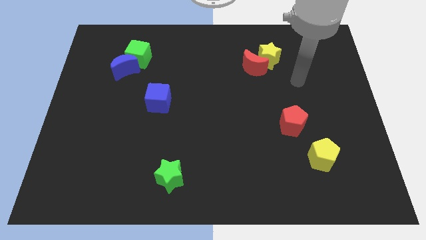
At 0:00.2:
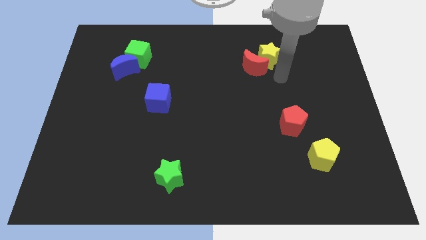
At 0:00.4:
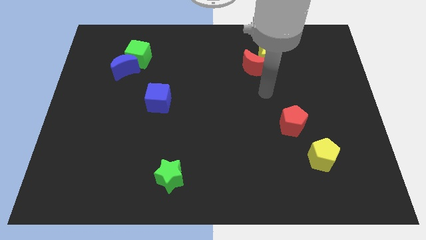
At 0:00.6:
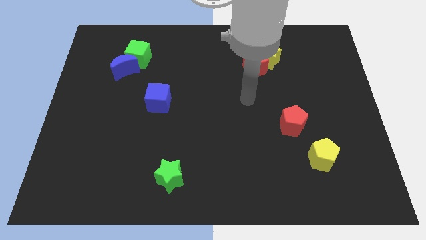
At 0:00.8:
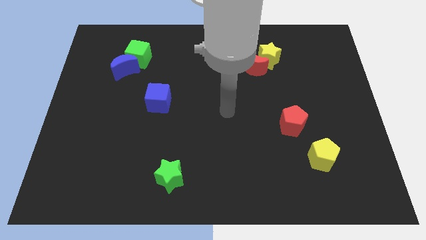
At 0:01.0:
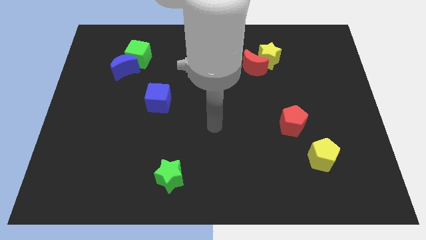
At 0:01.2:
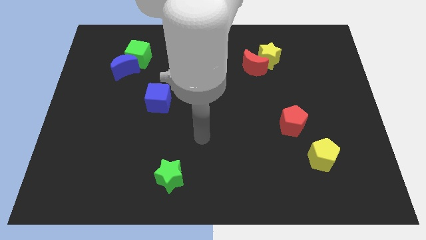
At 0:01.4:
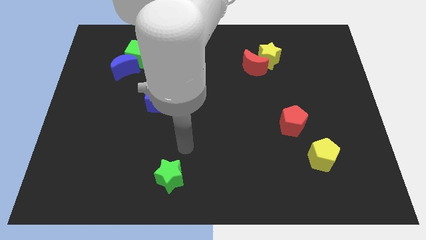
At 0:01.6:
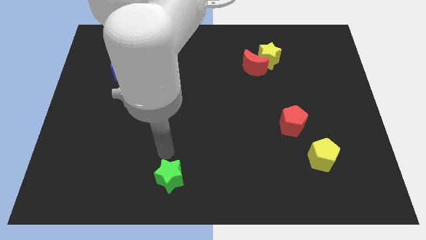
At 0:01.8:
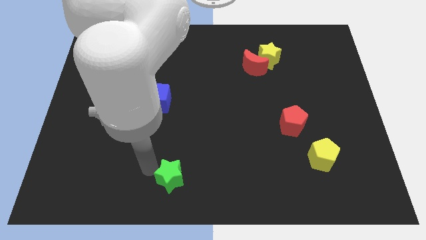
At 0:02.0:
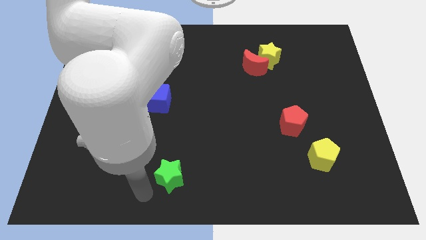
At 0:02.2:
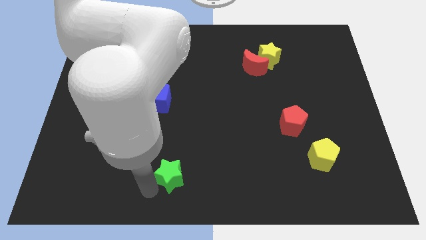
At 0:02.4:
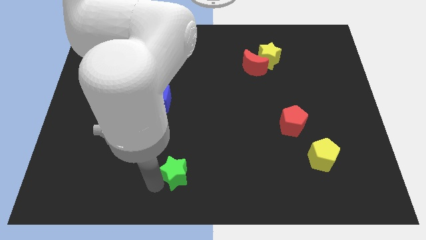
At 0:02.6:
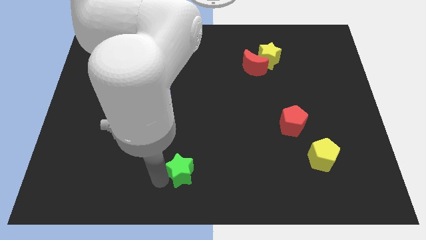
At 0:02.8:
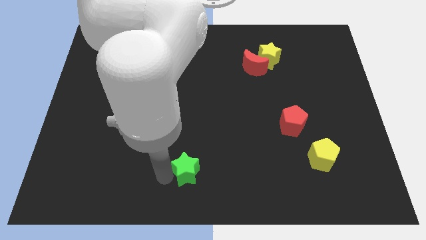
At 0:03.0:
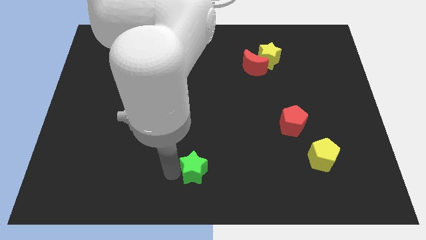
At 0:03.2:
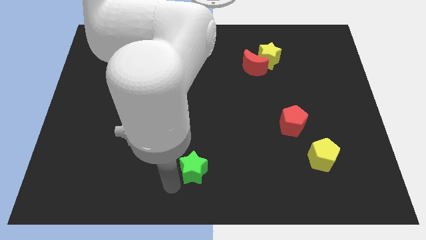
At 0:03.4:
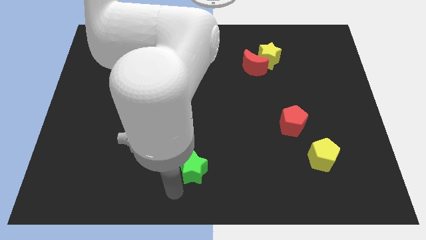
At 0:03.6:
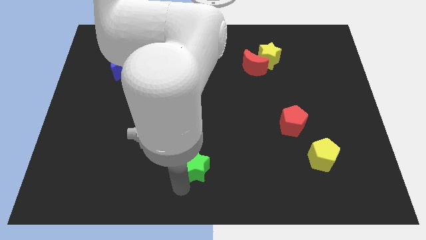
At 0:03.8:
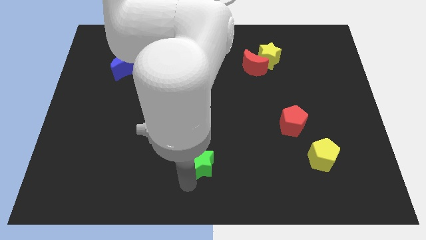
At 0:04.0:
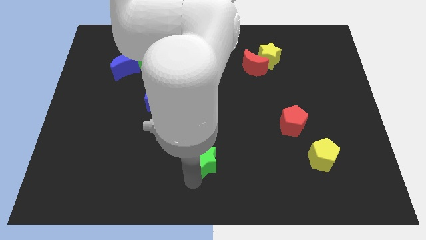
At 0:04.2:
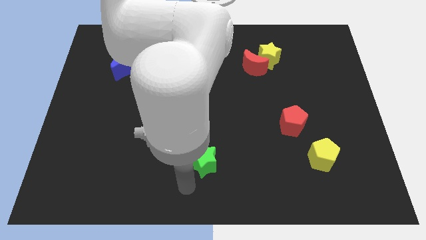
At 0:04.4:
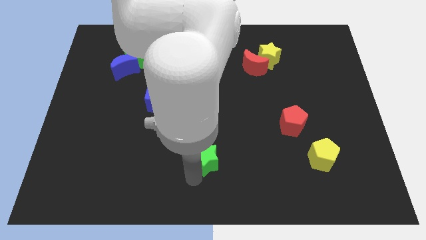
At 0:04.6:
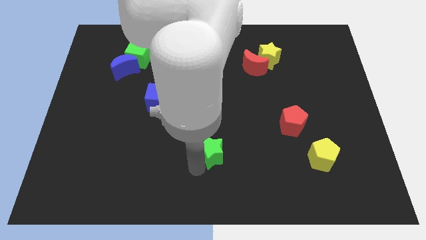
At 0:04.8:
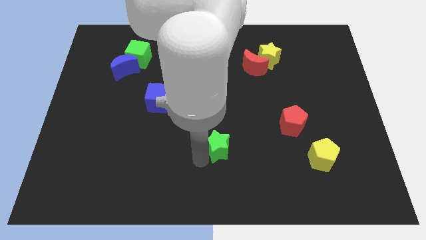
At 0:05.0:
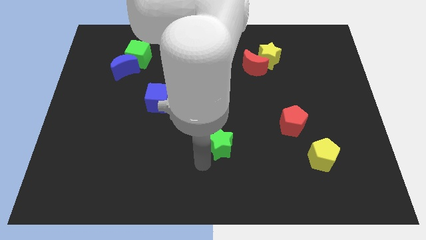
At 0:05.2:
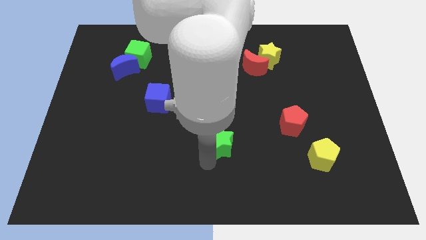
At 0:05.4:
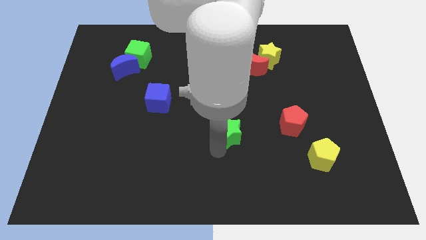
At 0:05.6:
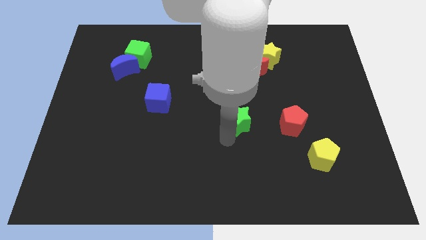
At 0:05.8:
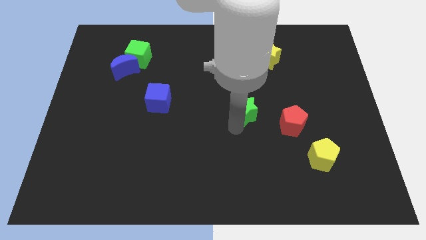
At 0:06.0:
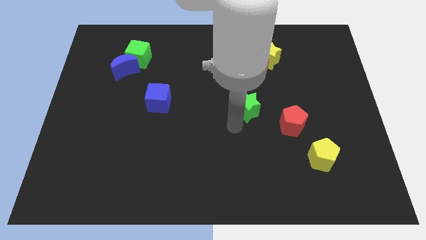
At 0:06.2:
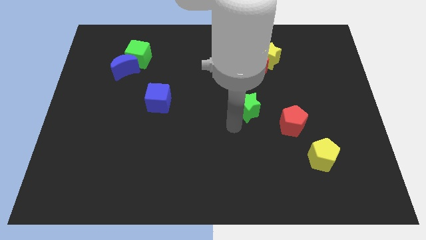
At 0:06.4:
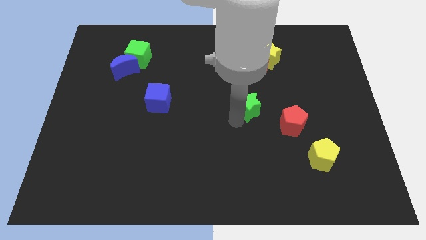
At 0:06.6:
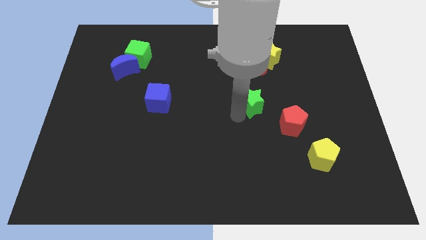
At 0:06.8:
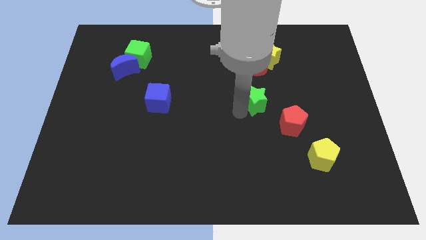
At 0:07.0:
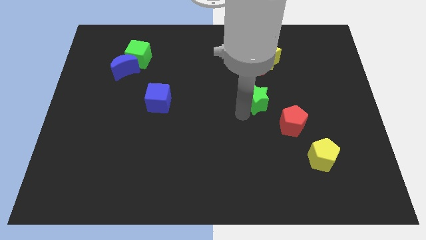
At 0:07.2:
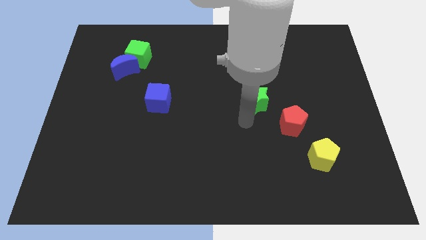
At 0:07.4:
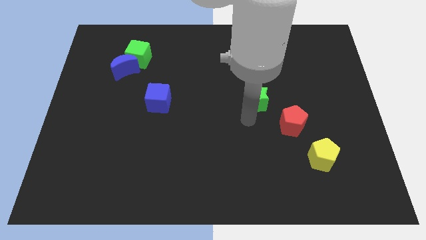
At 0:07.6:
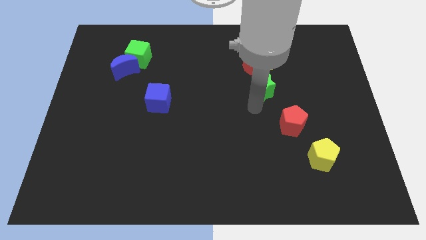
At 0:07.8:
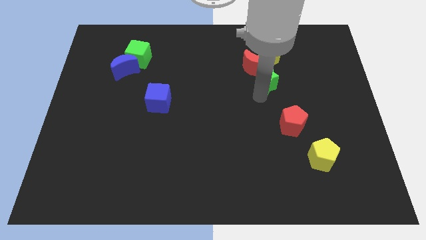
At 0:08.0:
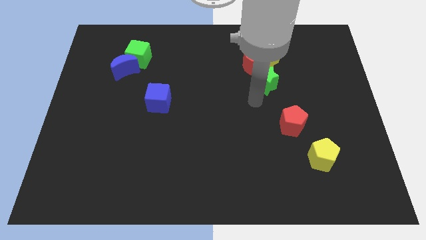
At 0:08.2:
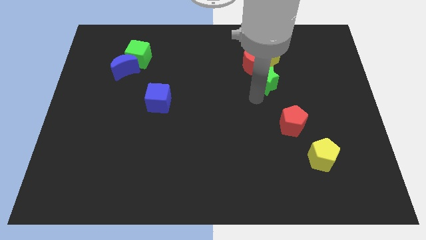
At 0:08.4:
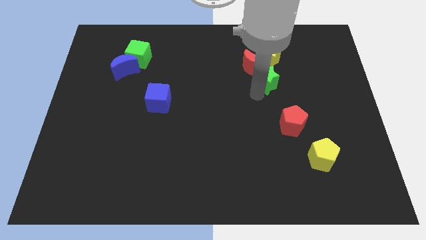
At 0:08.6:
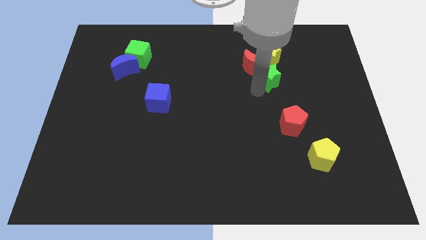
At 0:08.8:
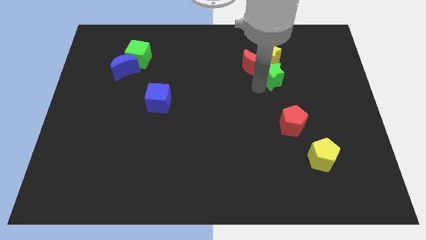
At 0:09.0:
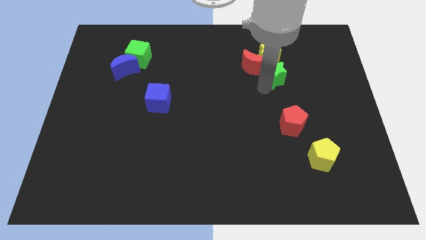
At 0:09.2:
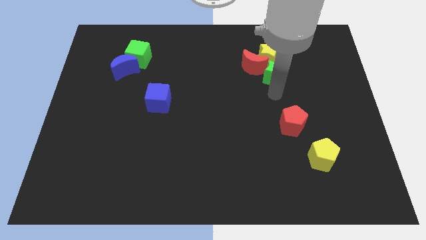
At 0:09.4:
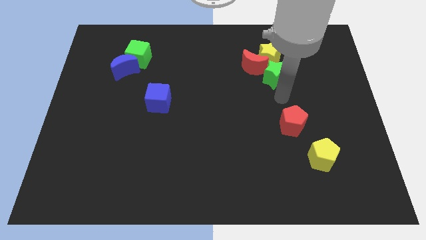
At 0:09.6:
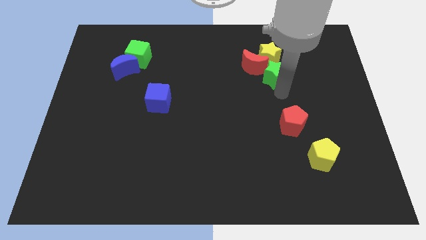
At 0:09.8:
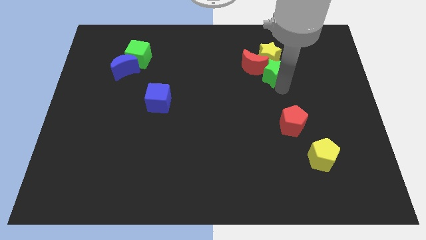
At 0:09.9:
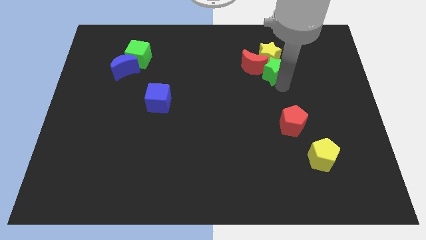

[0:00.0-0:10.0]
slide the green star close to the yellow star

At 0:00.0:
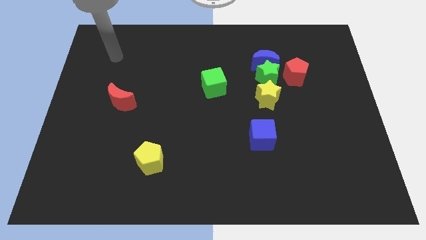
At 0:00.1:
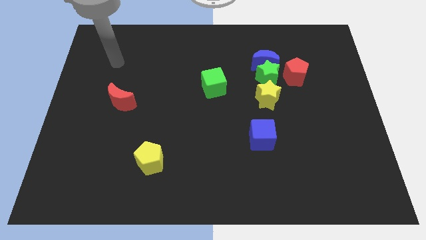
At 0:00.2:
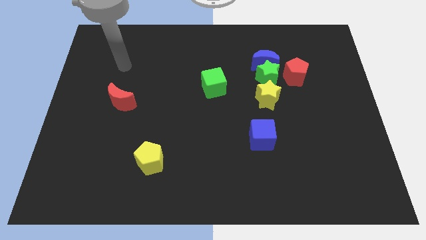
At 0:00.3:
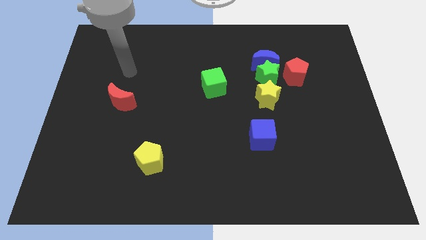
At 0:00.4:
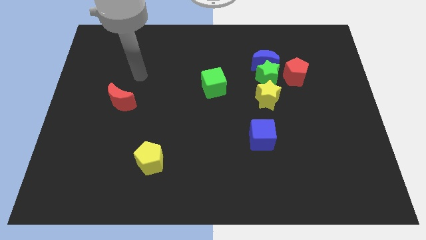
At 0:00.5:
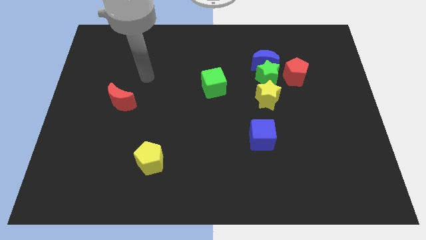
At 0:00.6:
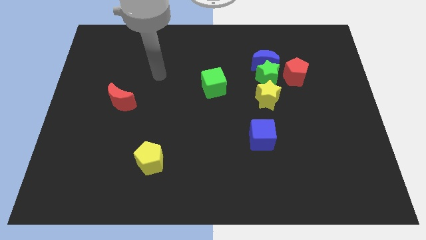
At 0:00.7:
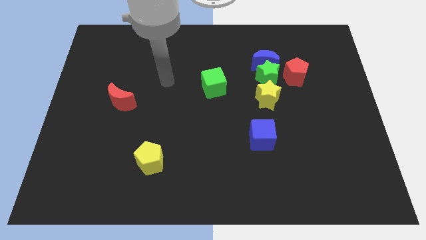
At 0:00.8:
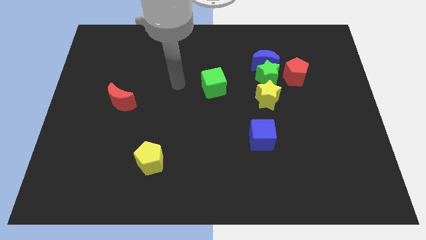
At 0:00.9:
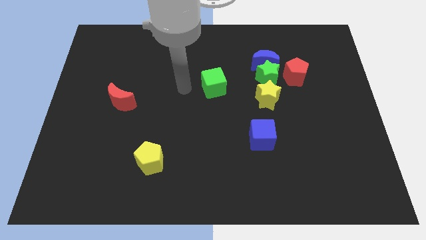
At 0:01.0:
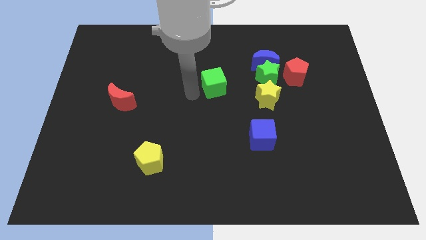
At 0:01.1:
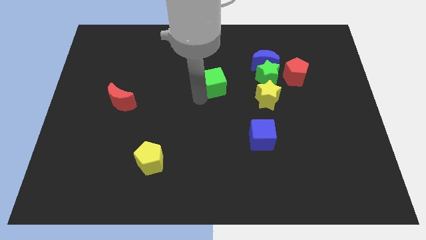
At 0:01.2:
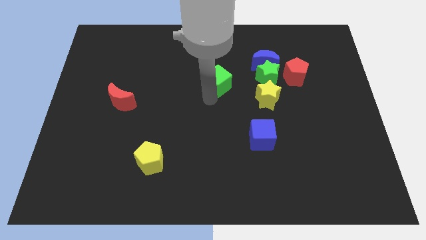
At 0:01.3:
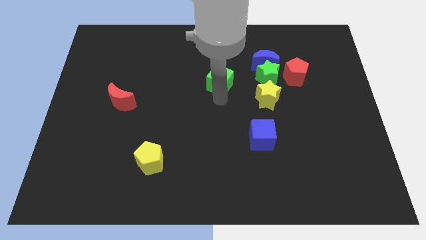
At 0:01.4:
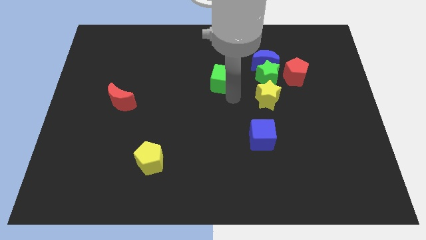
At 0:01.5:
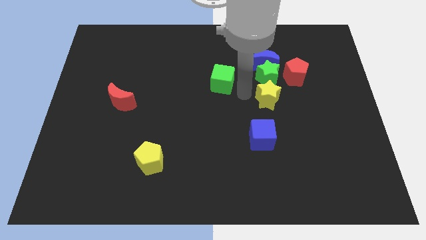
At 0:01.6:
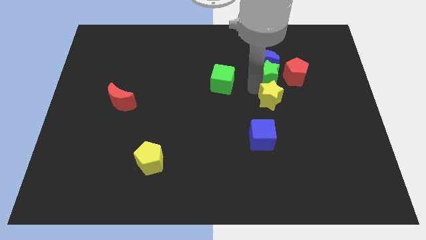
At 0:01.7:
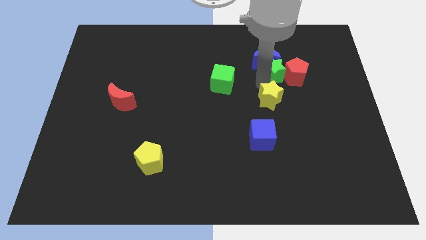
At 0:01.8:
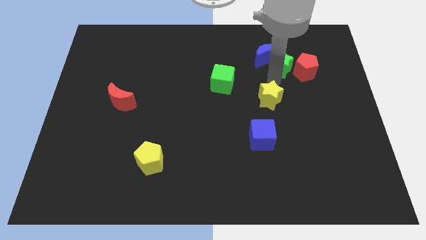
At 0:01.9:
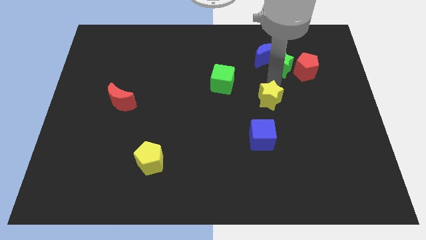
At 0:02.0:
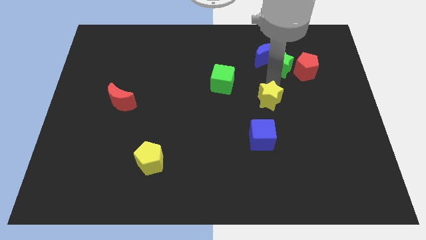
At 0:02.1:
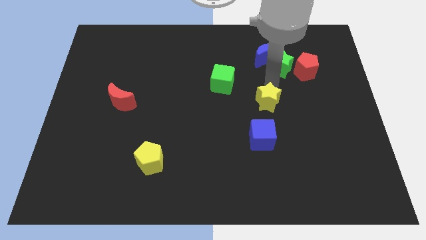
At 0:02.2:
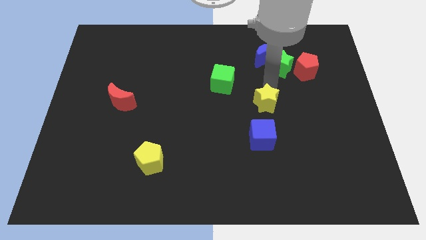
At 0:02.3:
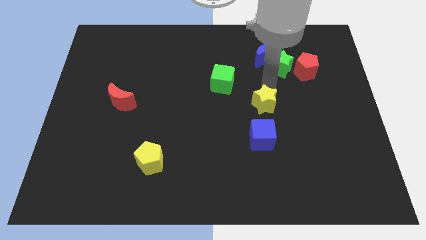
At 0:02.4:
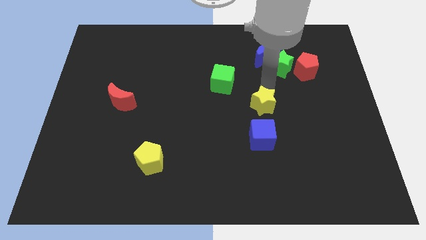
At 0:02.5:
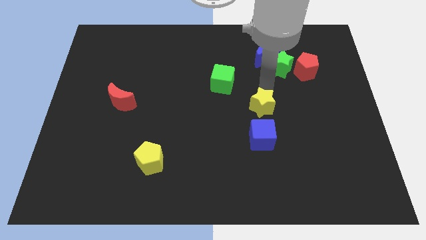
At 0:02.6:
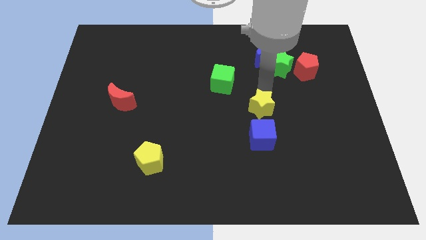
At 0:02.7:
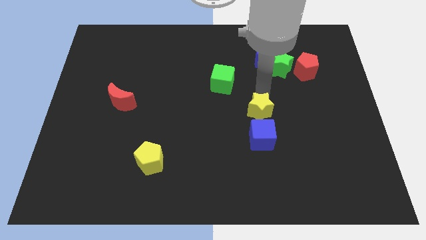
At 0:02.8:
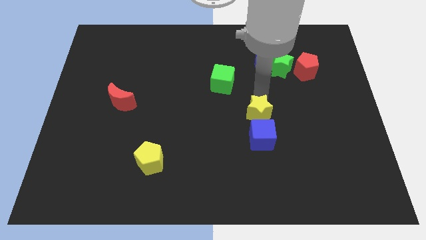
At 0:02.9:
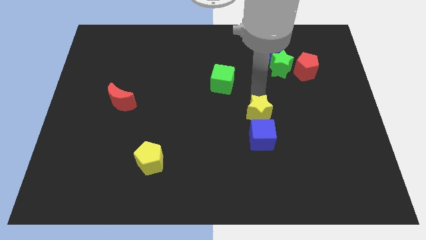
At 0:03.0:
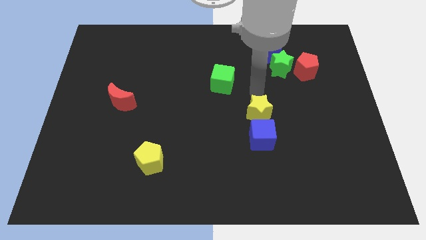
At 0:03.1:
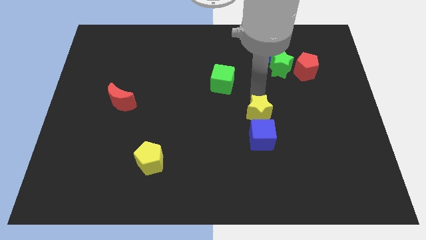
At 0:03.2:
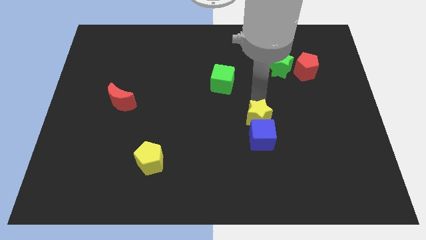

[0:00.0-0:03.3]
push the yellow star towards the blue cube
